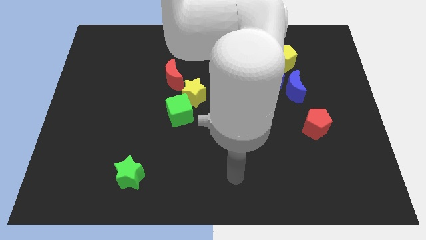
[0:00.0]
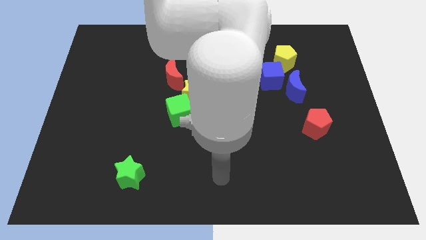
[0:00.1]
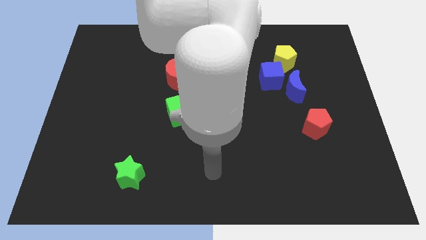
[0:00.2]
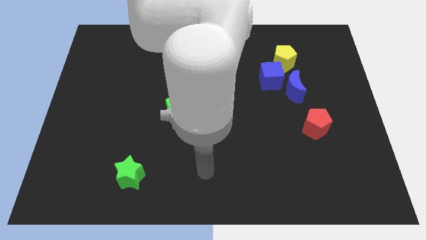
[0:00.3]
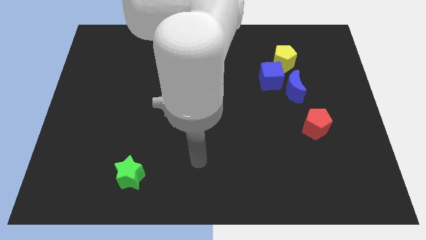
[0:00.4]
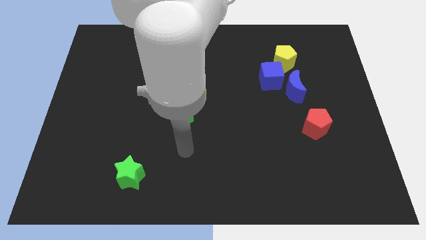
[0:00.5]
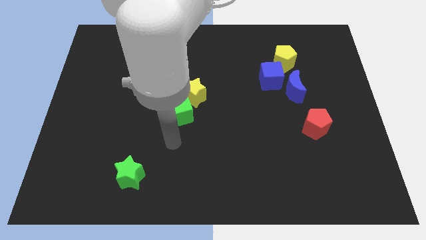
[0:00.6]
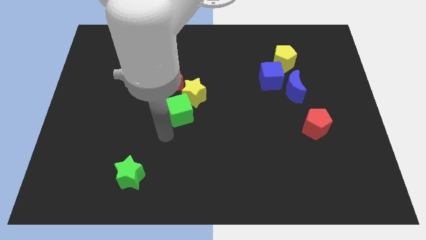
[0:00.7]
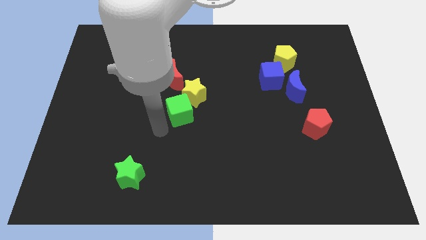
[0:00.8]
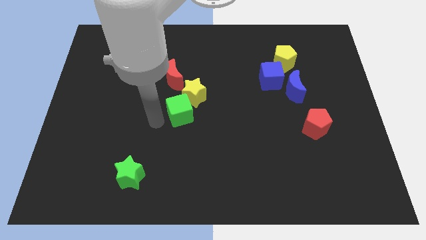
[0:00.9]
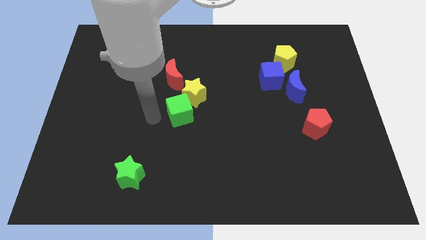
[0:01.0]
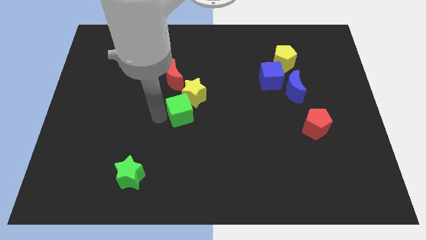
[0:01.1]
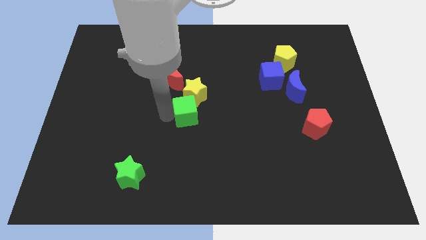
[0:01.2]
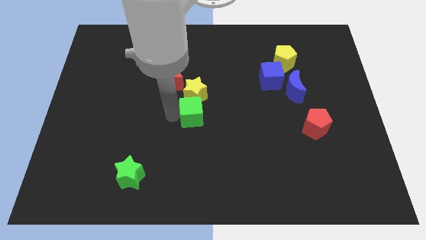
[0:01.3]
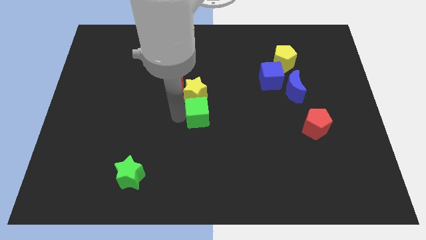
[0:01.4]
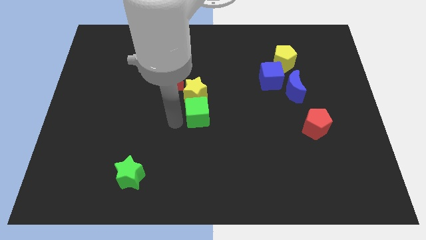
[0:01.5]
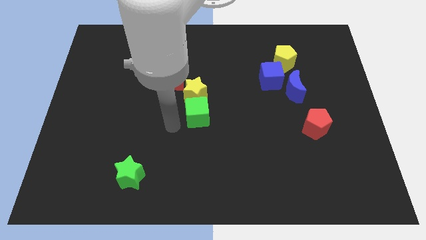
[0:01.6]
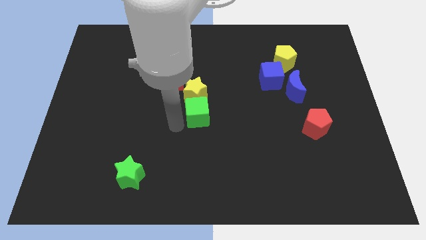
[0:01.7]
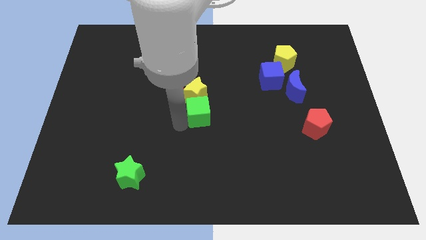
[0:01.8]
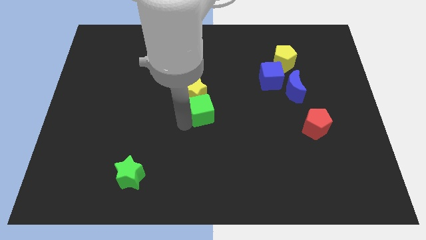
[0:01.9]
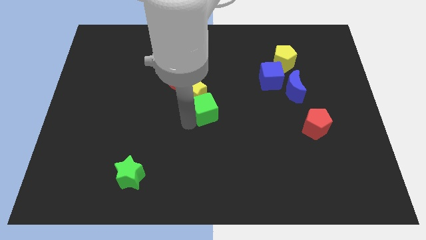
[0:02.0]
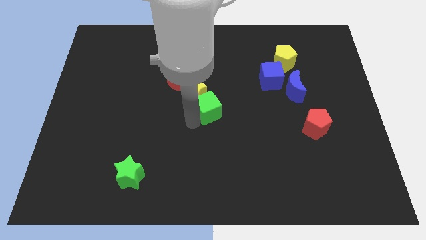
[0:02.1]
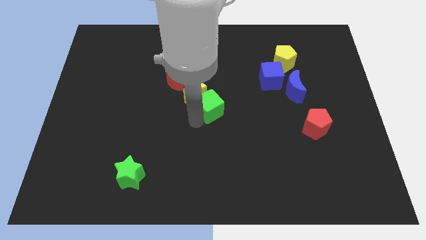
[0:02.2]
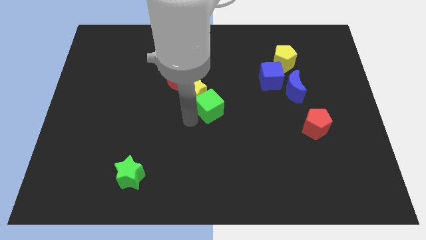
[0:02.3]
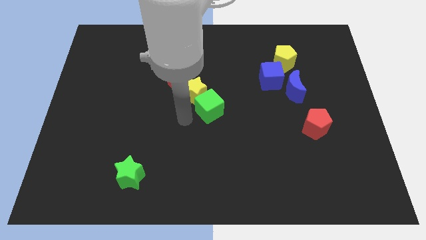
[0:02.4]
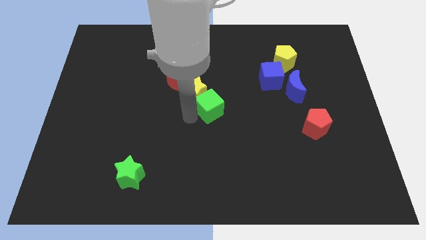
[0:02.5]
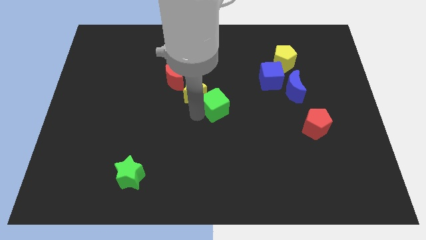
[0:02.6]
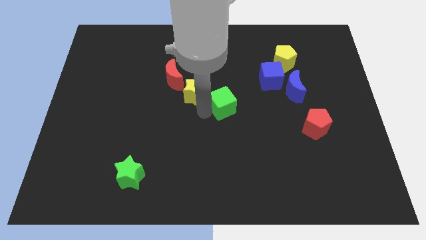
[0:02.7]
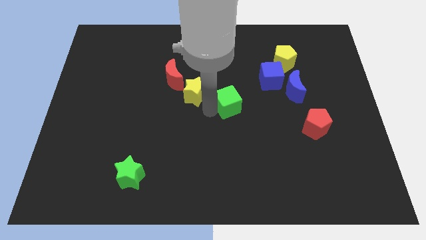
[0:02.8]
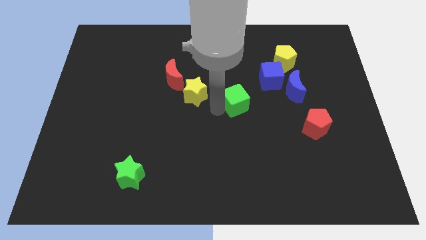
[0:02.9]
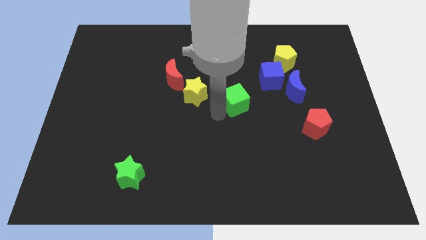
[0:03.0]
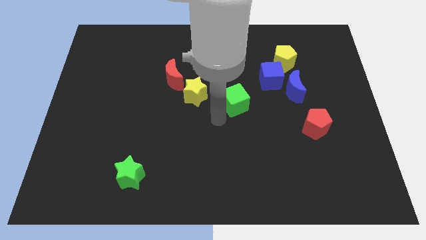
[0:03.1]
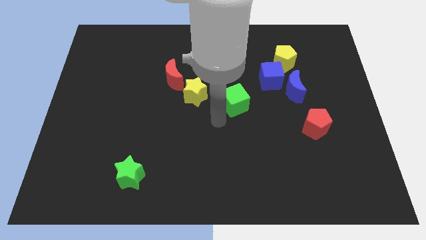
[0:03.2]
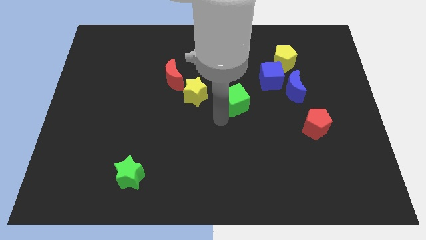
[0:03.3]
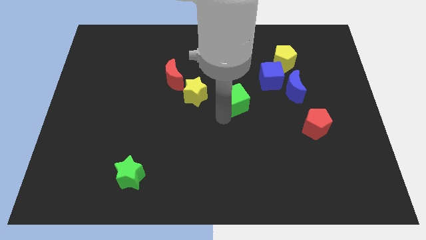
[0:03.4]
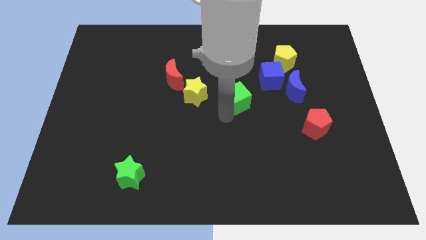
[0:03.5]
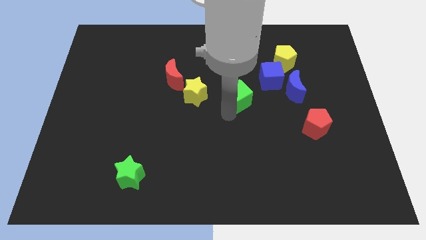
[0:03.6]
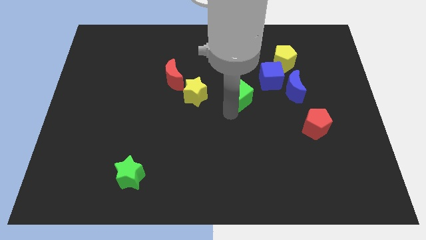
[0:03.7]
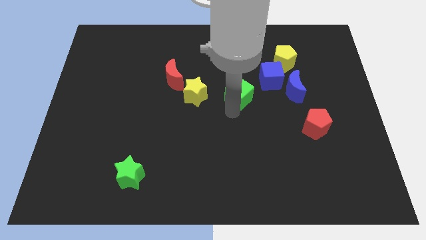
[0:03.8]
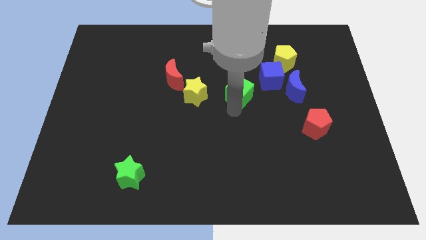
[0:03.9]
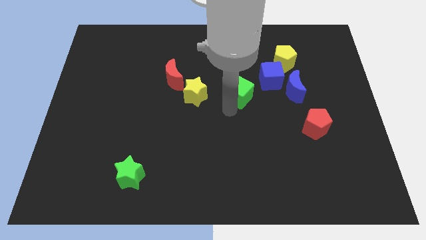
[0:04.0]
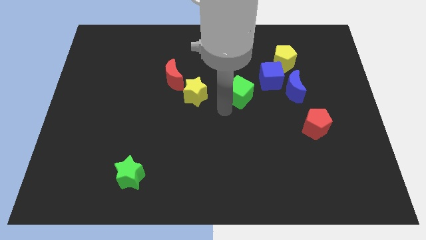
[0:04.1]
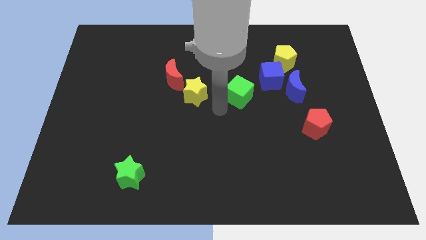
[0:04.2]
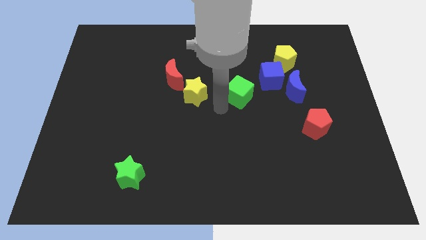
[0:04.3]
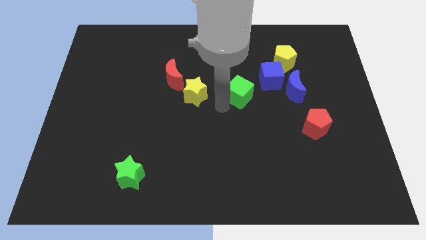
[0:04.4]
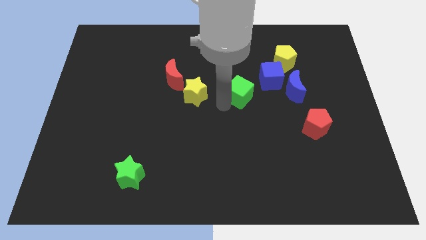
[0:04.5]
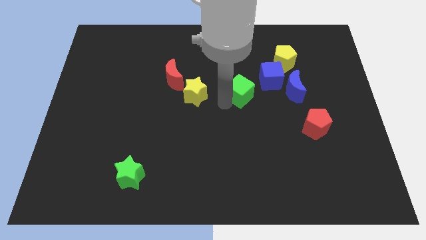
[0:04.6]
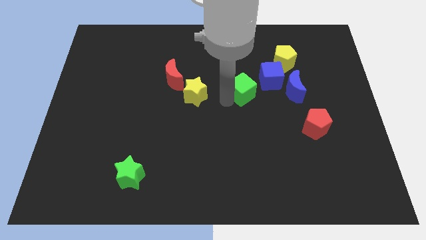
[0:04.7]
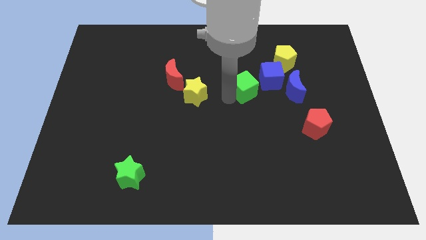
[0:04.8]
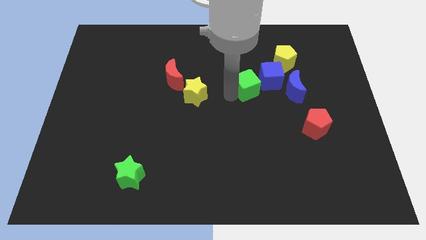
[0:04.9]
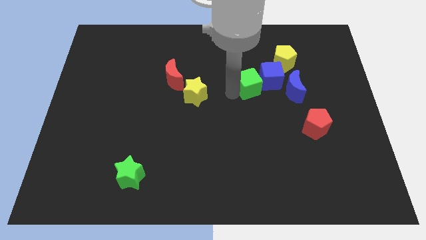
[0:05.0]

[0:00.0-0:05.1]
put the green cube next to the blue cube

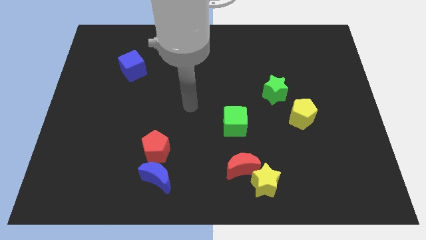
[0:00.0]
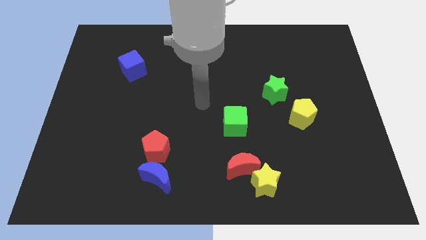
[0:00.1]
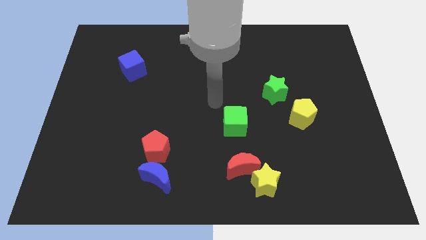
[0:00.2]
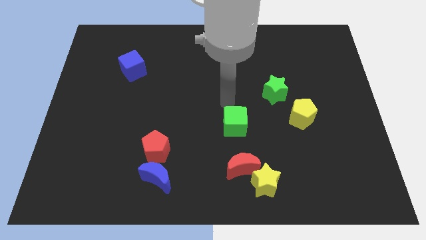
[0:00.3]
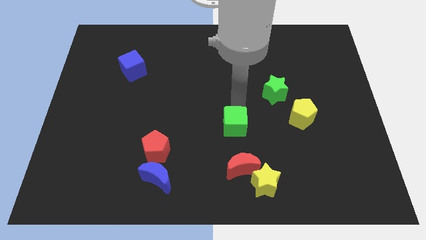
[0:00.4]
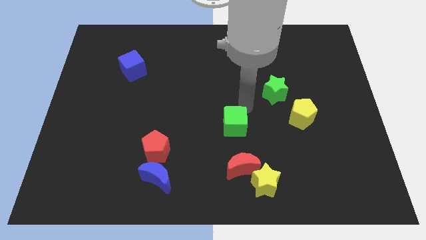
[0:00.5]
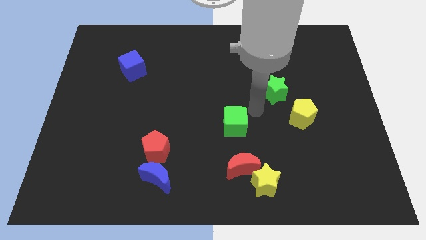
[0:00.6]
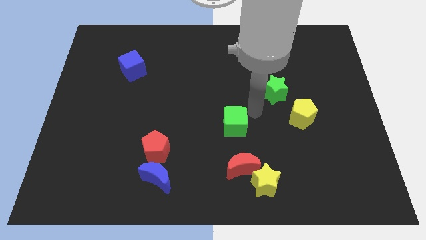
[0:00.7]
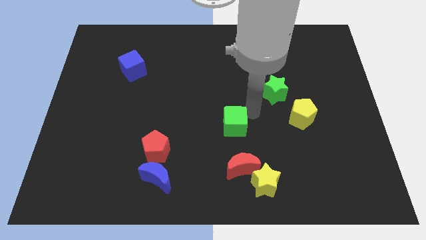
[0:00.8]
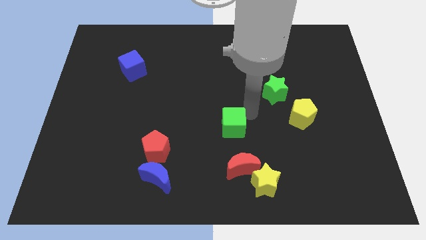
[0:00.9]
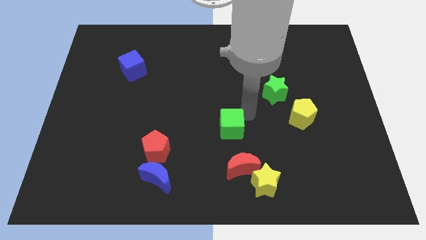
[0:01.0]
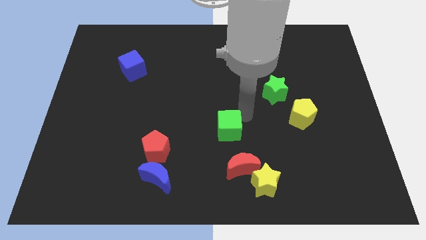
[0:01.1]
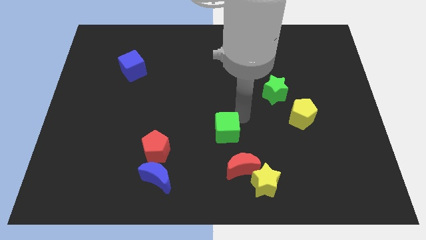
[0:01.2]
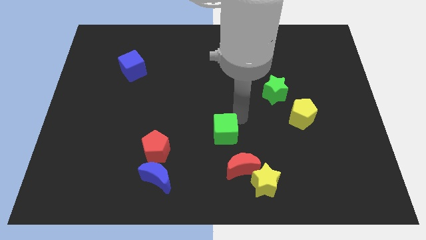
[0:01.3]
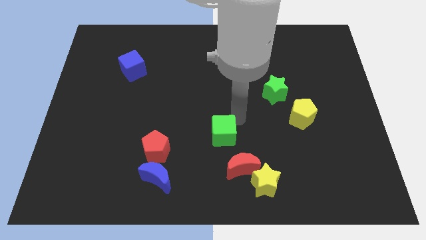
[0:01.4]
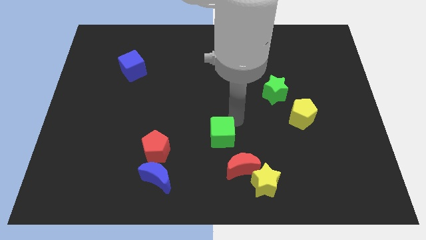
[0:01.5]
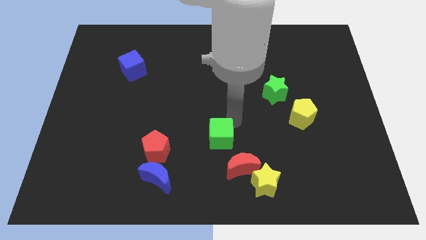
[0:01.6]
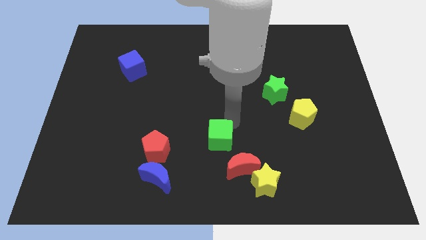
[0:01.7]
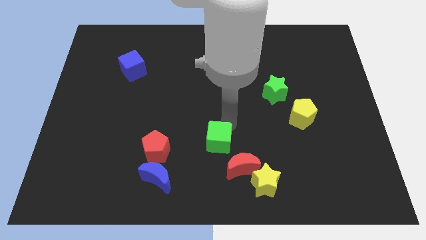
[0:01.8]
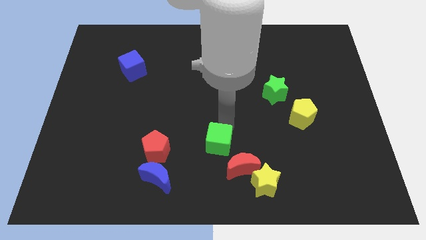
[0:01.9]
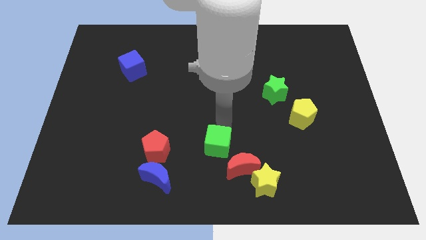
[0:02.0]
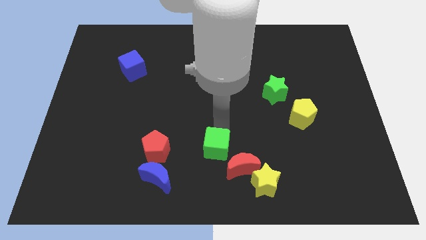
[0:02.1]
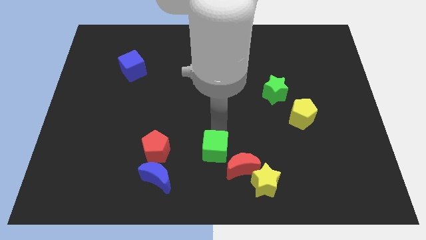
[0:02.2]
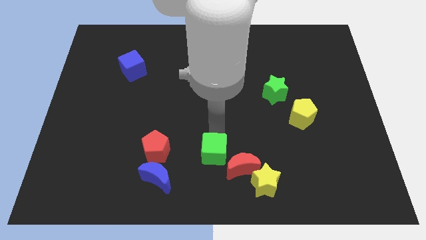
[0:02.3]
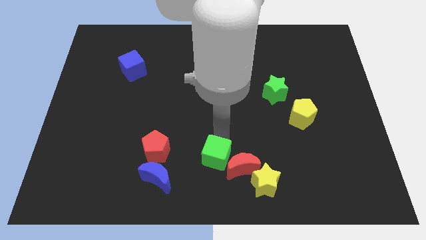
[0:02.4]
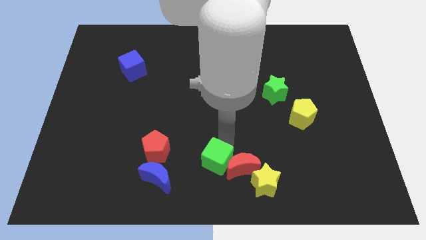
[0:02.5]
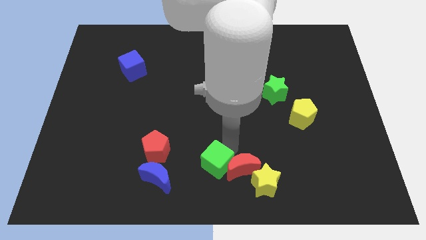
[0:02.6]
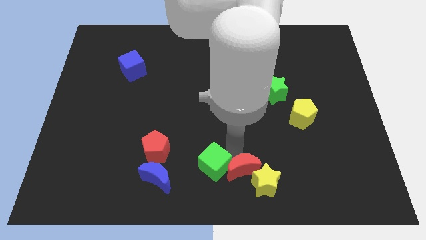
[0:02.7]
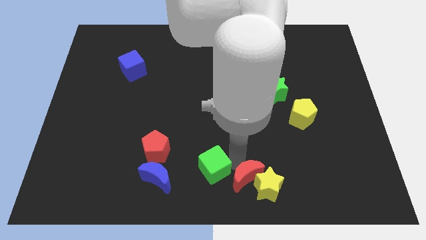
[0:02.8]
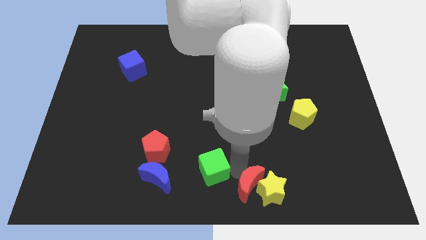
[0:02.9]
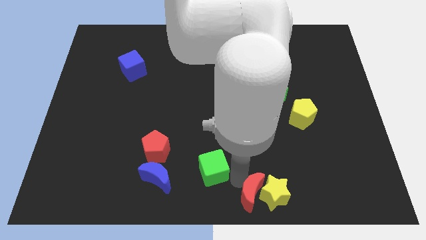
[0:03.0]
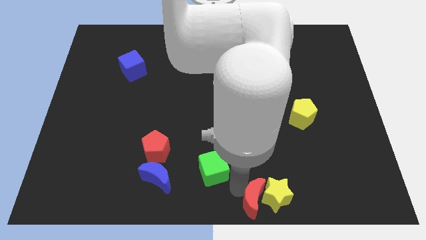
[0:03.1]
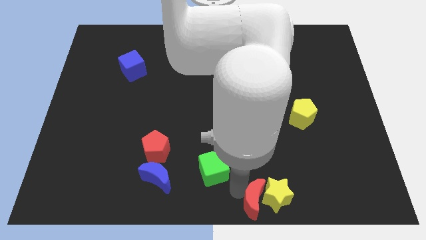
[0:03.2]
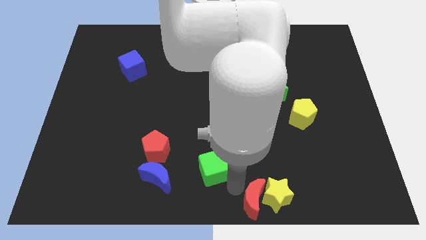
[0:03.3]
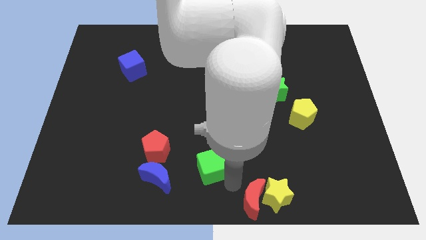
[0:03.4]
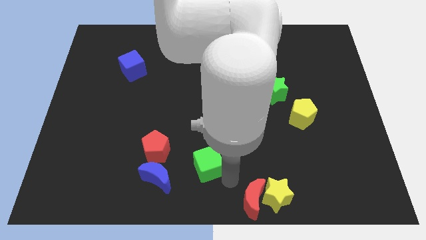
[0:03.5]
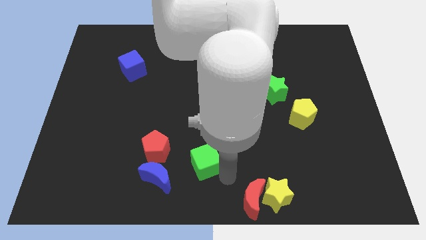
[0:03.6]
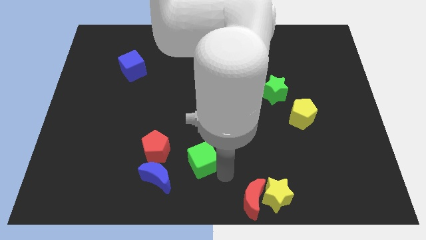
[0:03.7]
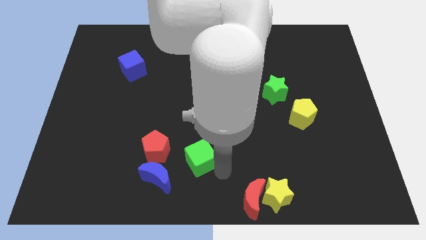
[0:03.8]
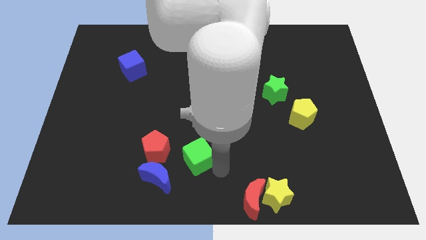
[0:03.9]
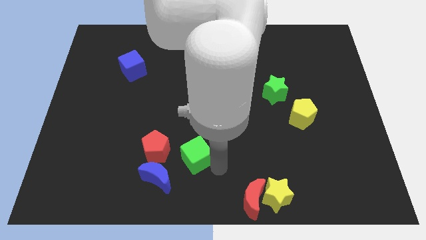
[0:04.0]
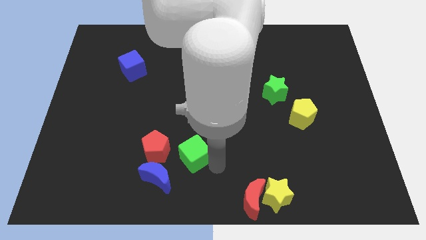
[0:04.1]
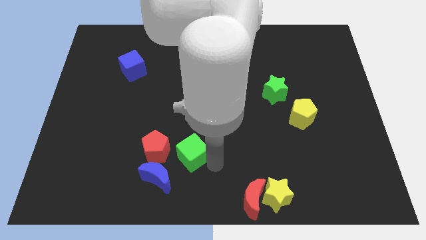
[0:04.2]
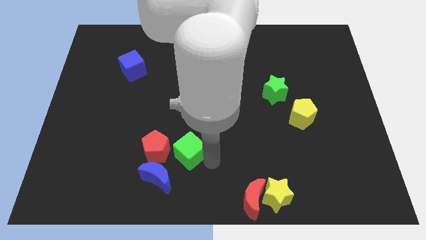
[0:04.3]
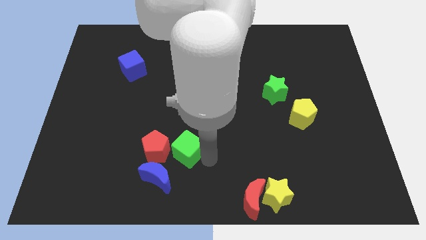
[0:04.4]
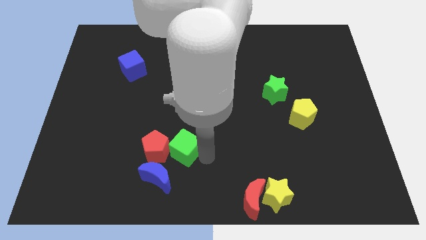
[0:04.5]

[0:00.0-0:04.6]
move the green cube next to the red pentagon
